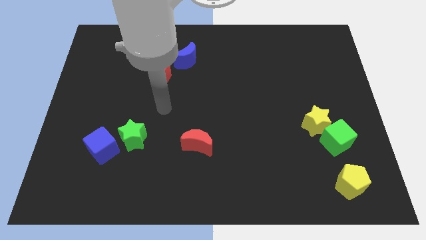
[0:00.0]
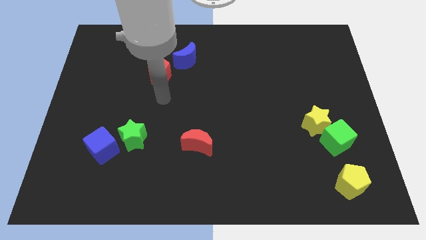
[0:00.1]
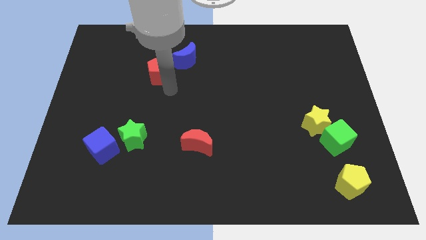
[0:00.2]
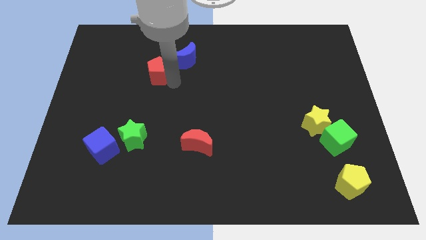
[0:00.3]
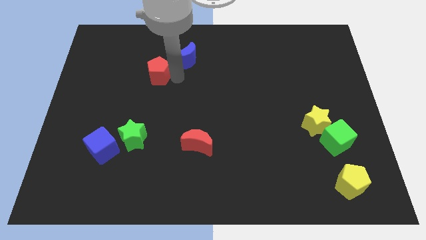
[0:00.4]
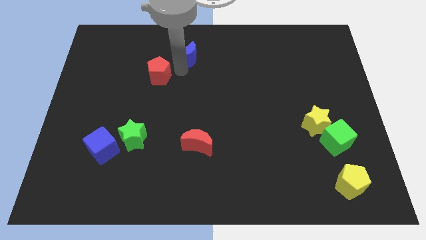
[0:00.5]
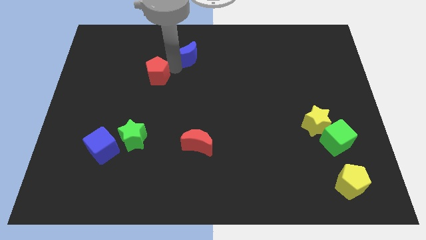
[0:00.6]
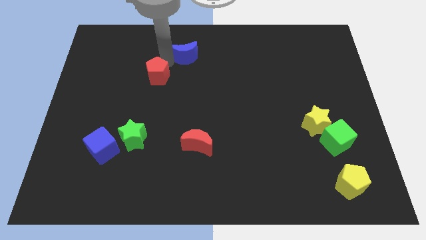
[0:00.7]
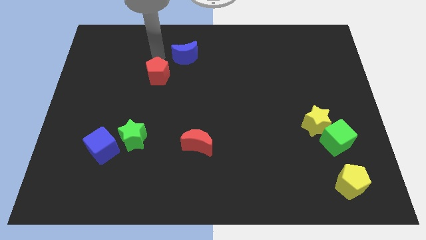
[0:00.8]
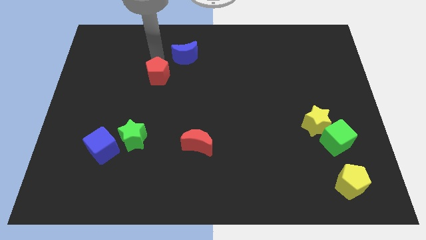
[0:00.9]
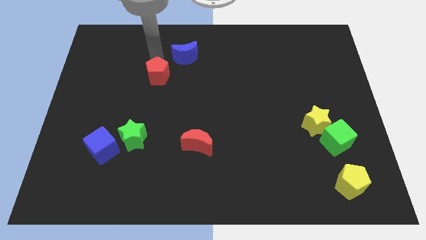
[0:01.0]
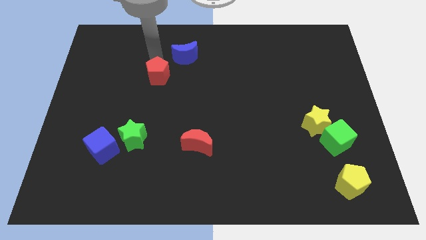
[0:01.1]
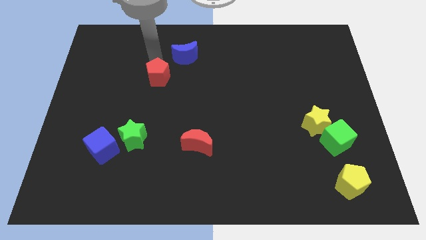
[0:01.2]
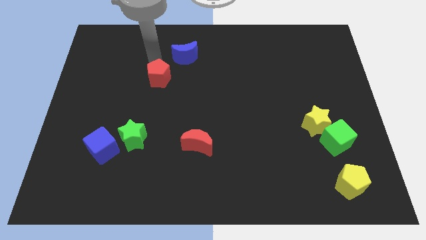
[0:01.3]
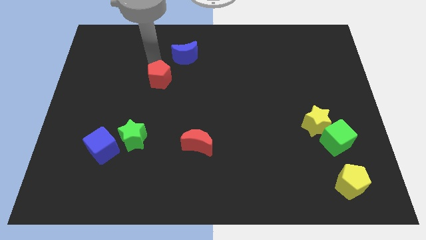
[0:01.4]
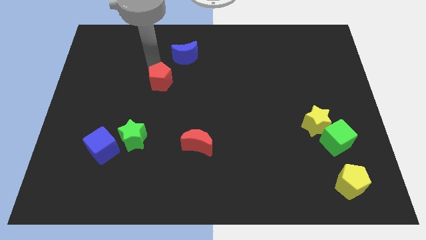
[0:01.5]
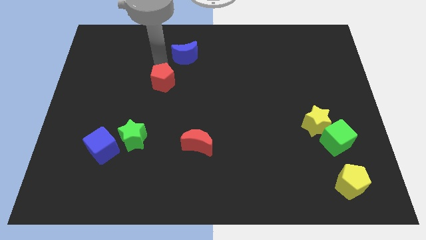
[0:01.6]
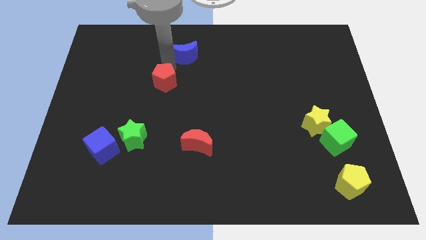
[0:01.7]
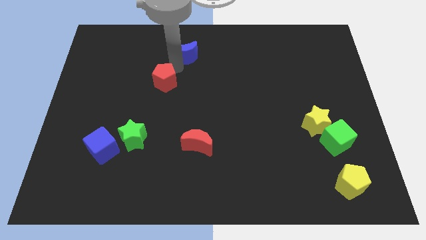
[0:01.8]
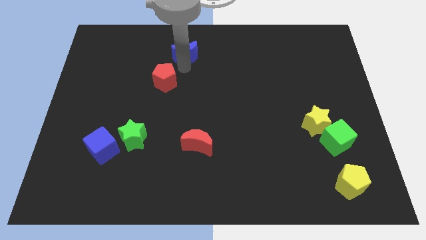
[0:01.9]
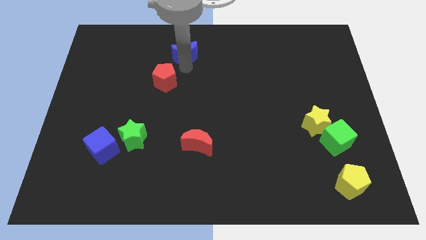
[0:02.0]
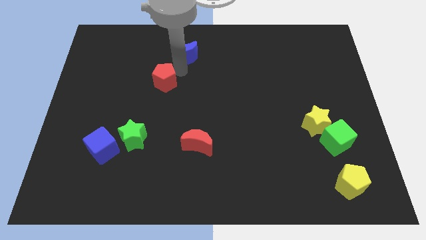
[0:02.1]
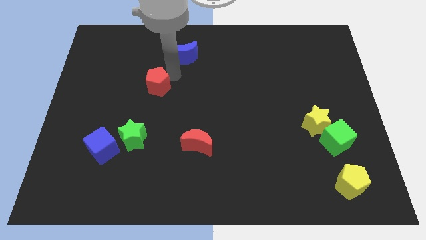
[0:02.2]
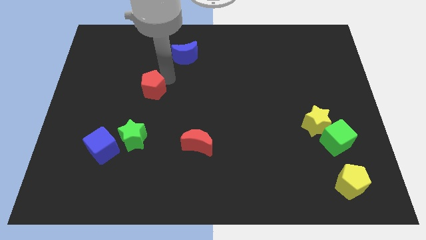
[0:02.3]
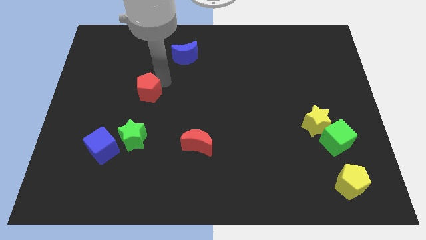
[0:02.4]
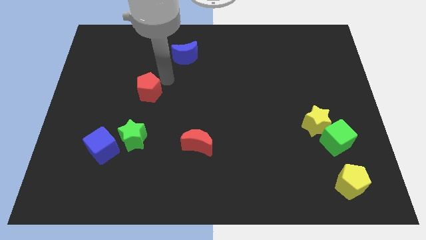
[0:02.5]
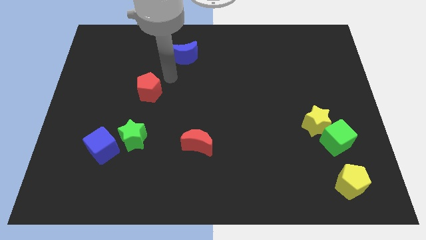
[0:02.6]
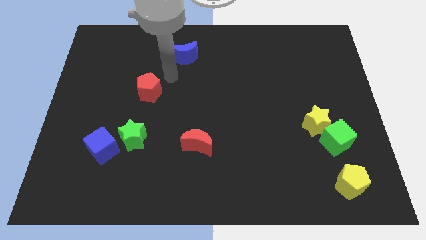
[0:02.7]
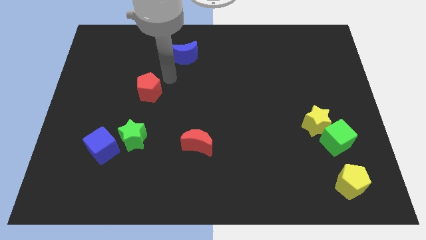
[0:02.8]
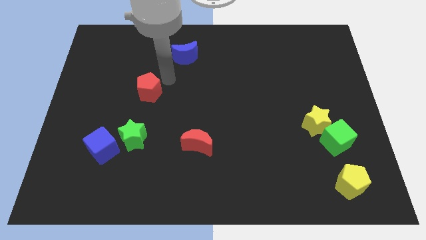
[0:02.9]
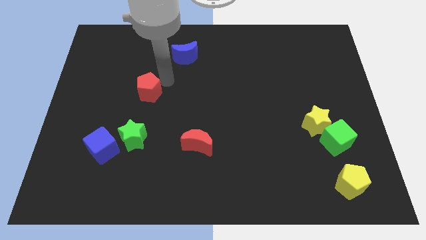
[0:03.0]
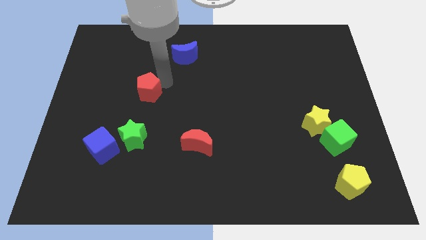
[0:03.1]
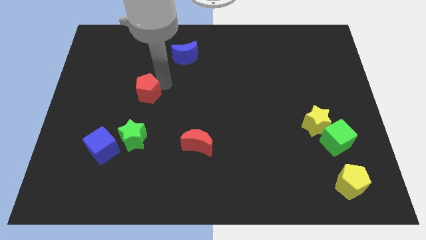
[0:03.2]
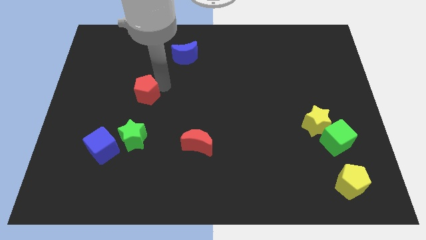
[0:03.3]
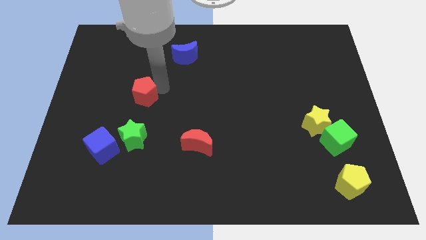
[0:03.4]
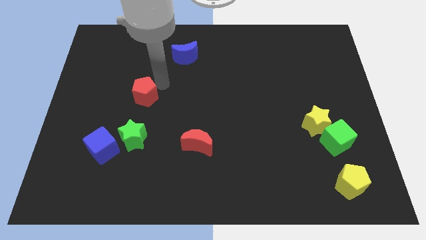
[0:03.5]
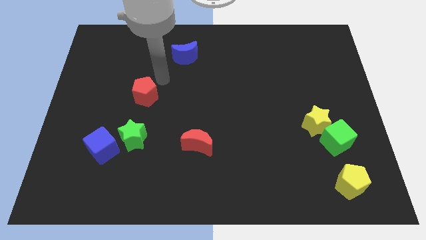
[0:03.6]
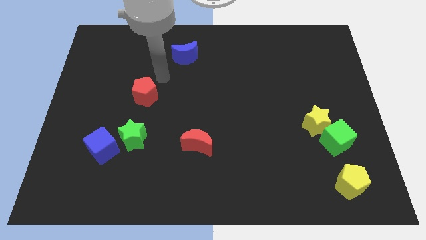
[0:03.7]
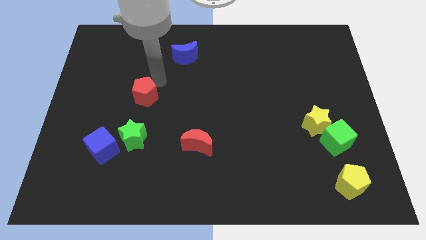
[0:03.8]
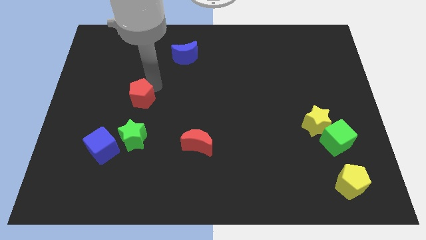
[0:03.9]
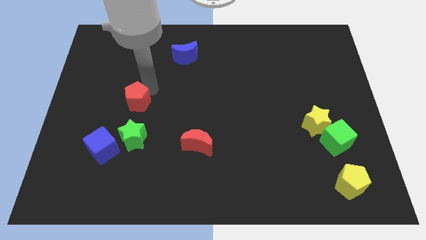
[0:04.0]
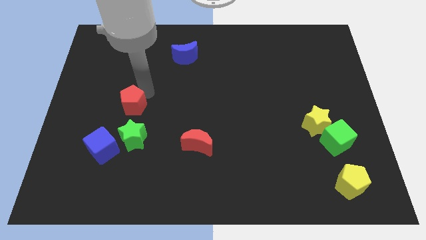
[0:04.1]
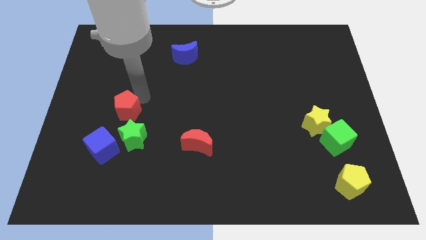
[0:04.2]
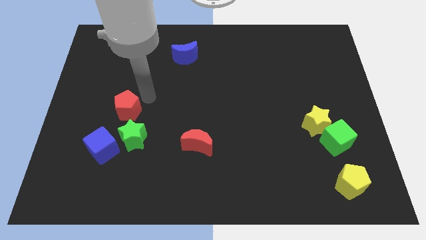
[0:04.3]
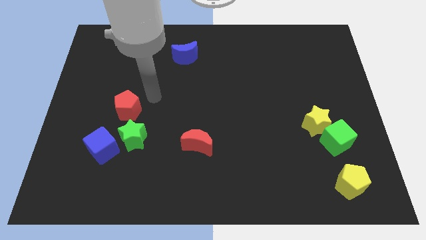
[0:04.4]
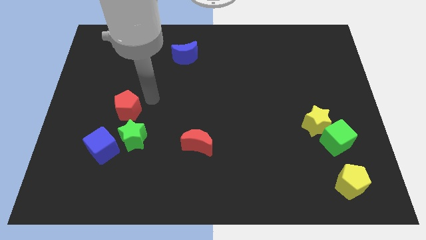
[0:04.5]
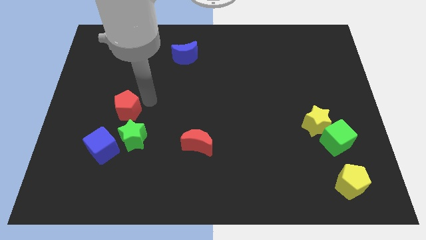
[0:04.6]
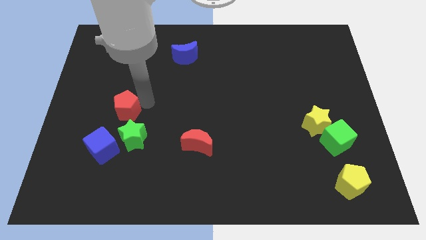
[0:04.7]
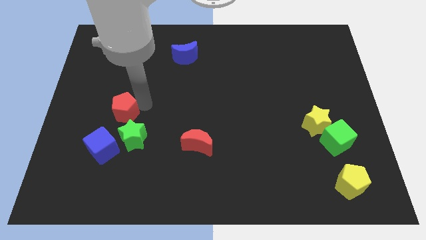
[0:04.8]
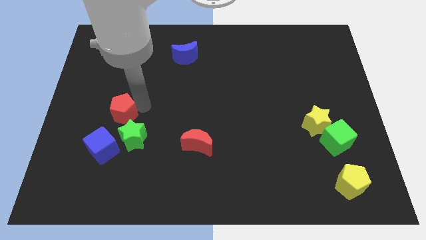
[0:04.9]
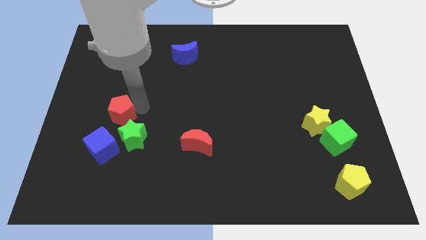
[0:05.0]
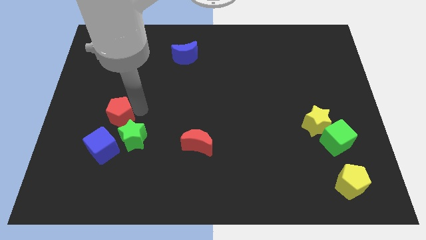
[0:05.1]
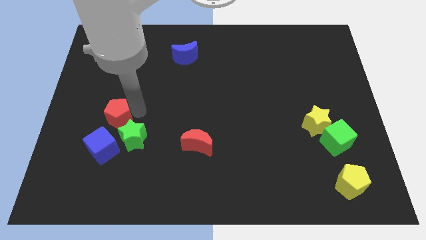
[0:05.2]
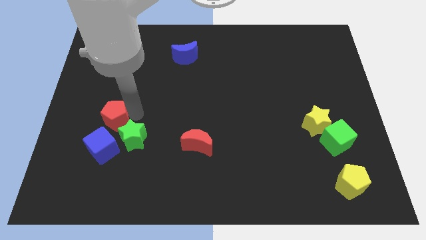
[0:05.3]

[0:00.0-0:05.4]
put the red pentagon left of the green star

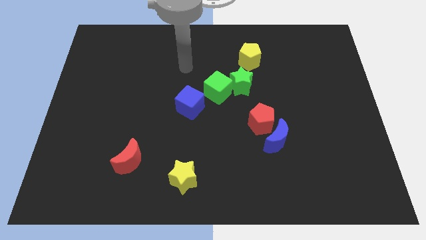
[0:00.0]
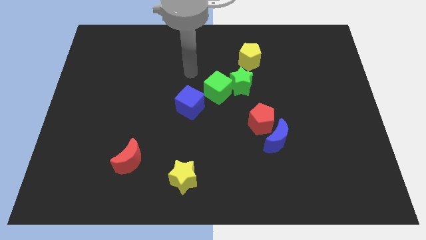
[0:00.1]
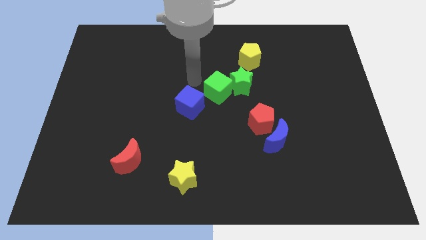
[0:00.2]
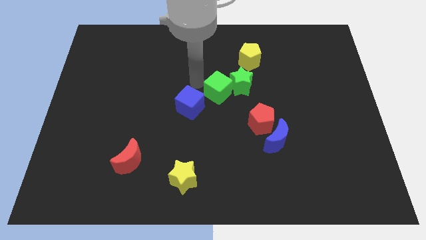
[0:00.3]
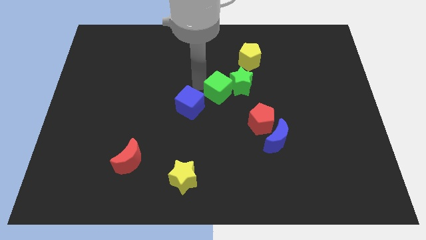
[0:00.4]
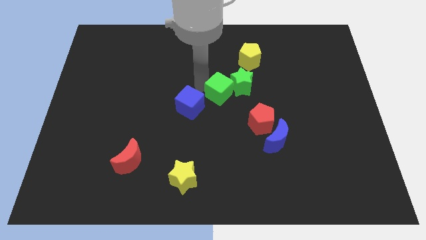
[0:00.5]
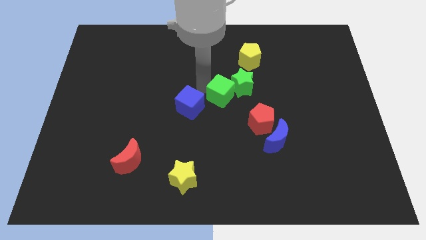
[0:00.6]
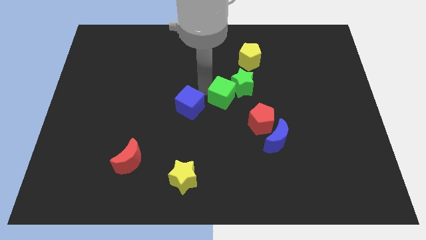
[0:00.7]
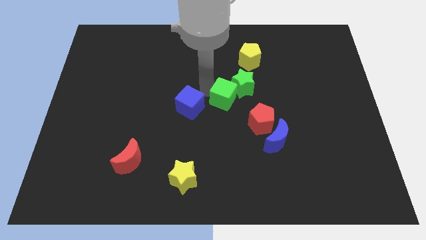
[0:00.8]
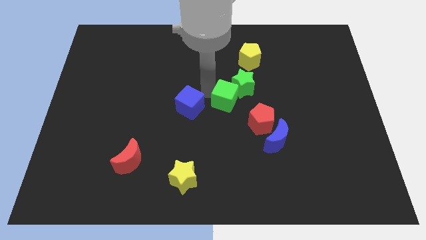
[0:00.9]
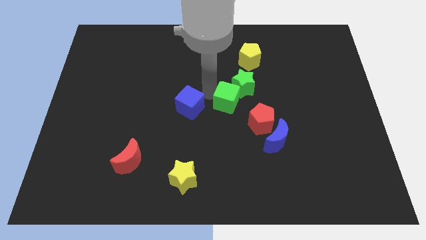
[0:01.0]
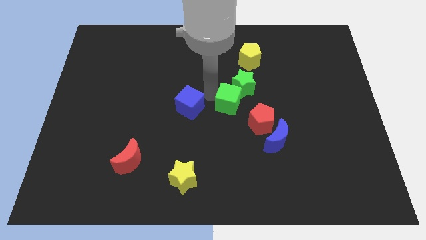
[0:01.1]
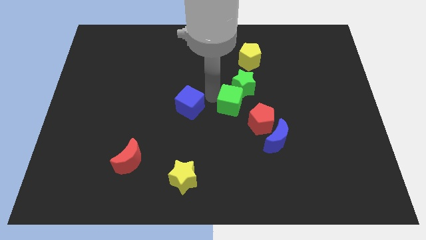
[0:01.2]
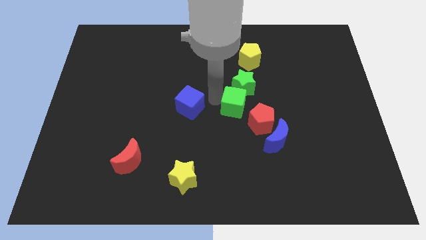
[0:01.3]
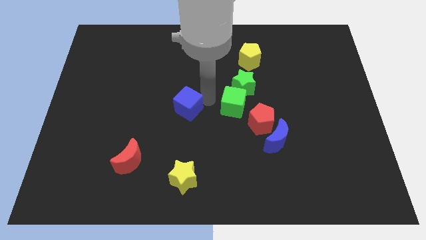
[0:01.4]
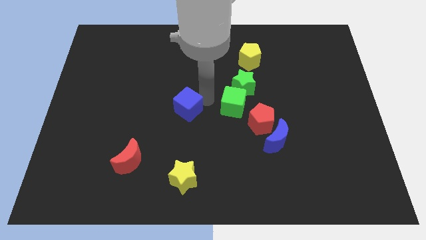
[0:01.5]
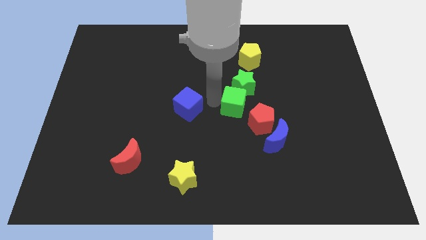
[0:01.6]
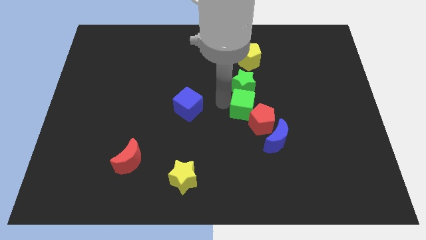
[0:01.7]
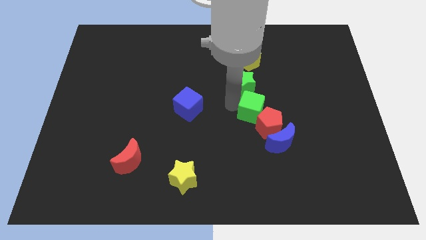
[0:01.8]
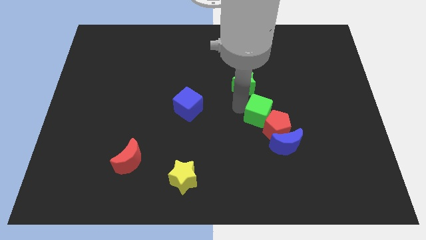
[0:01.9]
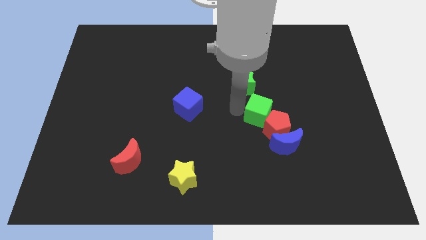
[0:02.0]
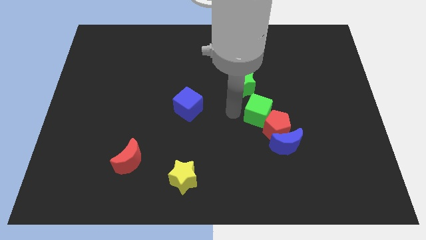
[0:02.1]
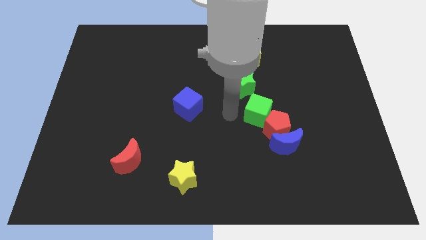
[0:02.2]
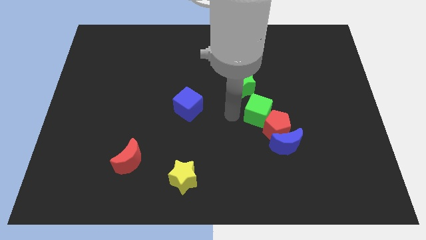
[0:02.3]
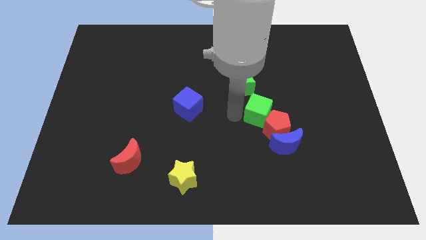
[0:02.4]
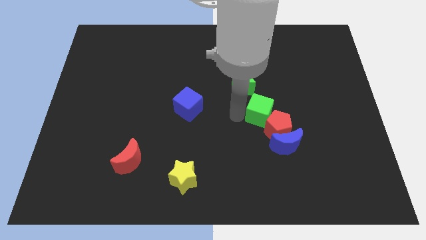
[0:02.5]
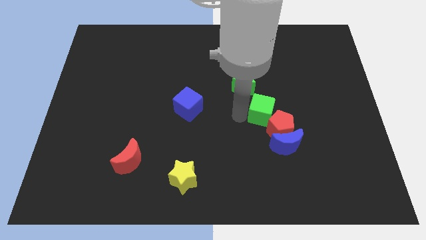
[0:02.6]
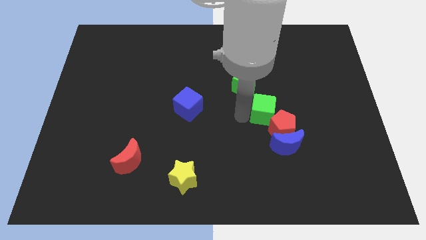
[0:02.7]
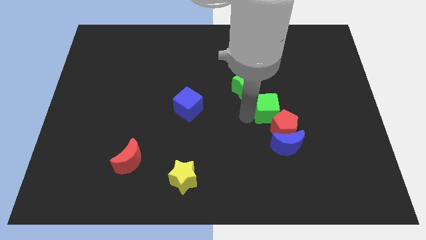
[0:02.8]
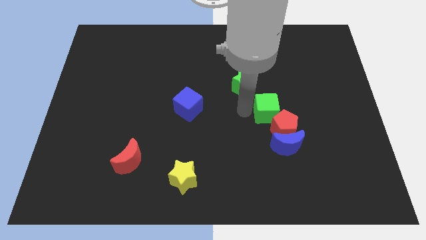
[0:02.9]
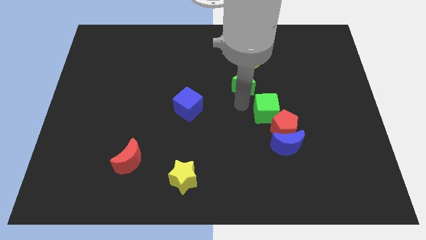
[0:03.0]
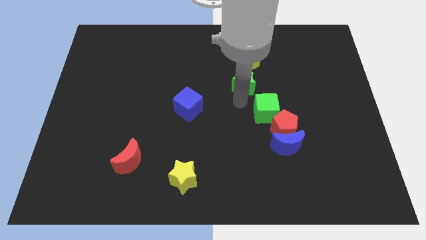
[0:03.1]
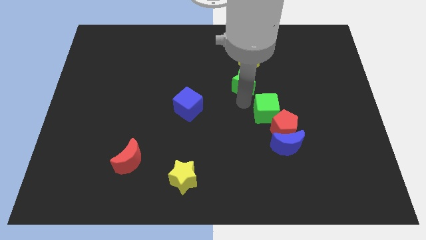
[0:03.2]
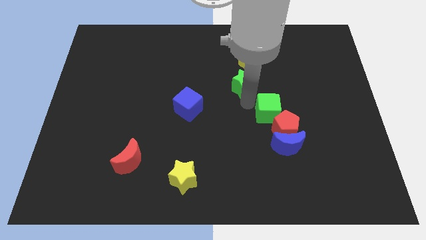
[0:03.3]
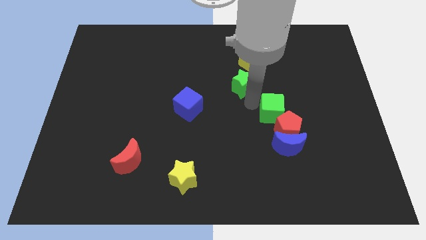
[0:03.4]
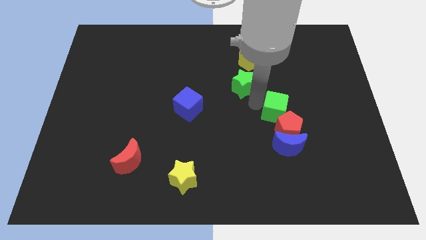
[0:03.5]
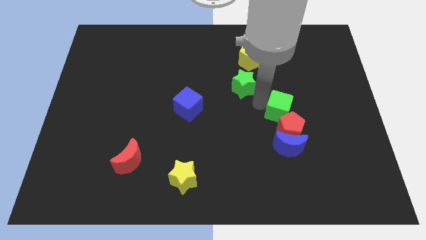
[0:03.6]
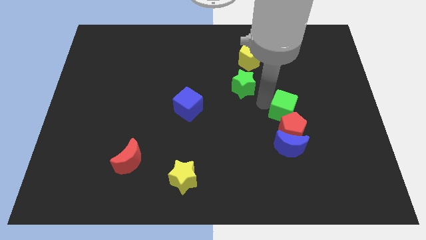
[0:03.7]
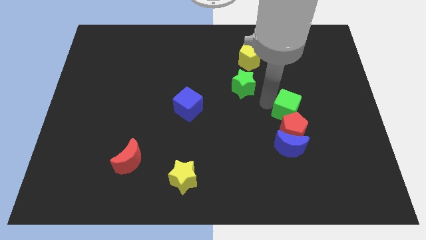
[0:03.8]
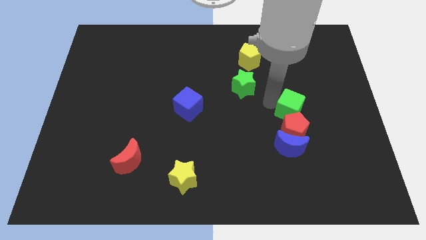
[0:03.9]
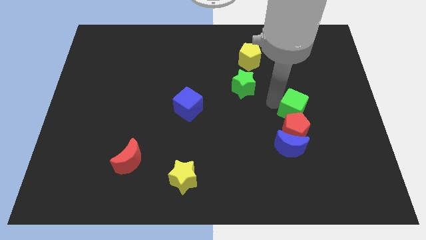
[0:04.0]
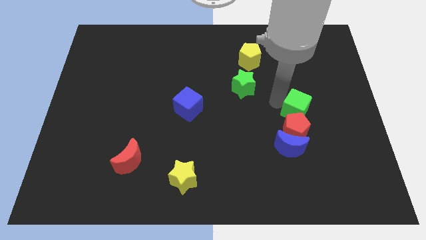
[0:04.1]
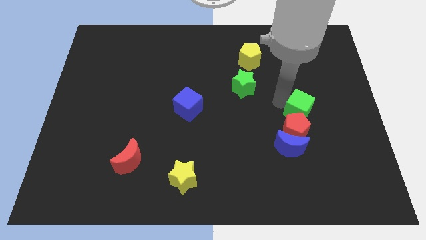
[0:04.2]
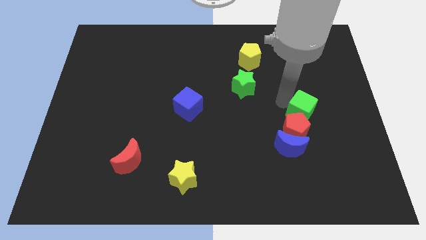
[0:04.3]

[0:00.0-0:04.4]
push the green cube to the top right side of the blue moon
